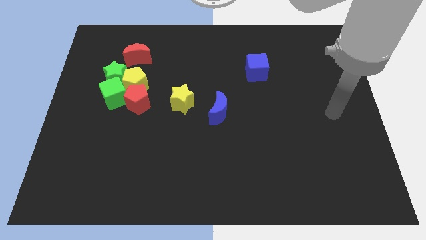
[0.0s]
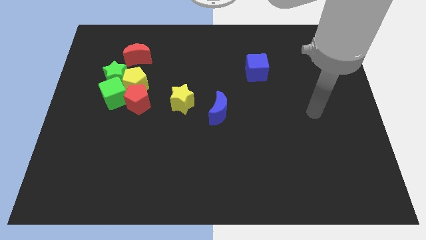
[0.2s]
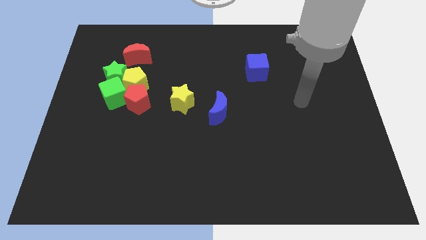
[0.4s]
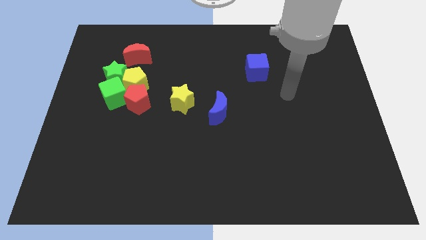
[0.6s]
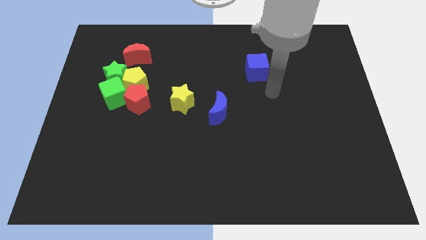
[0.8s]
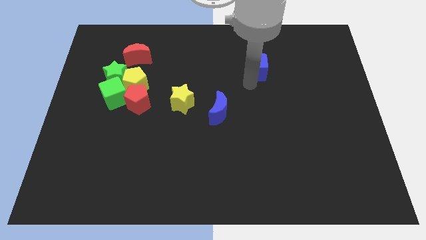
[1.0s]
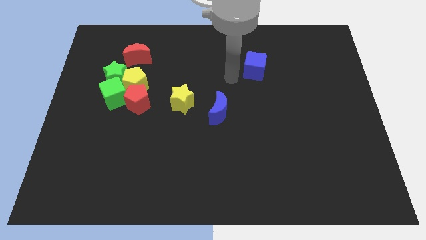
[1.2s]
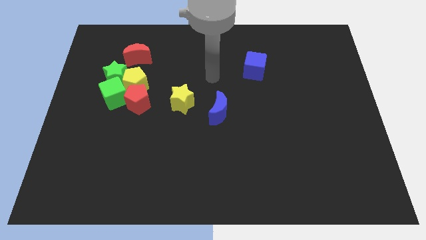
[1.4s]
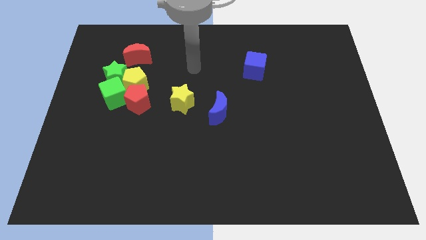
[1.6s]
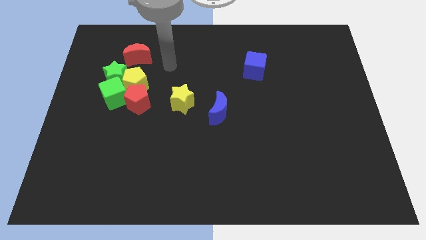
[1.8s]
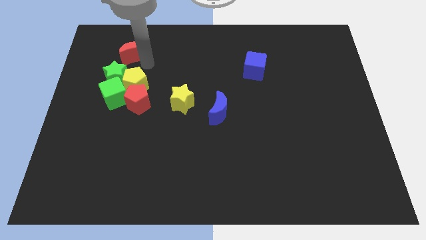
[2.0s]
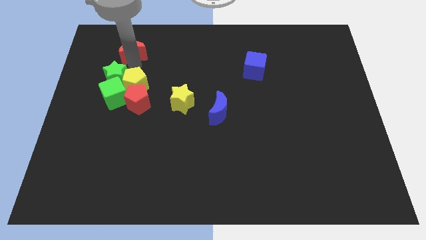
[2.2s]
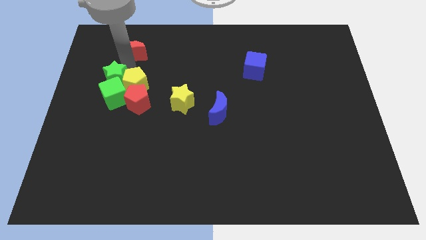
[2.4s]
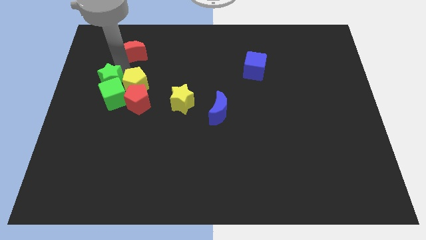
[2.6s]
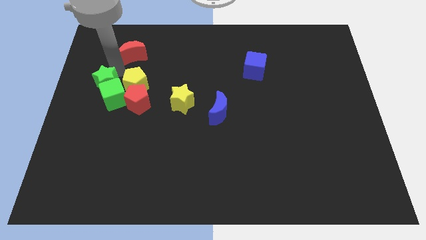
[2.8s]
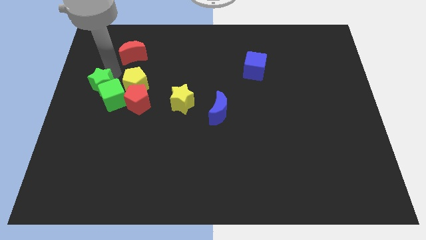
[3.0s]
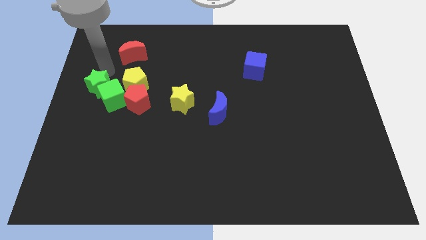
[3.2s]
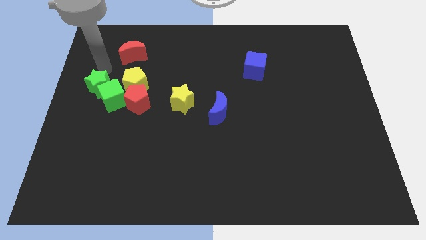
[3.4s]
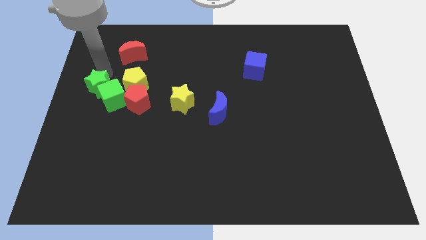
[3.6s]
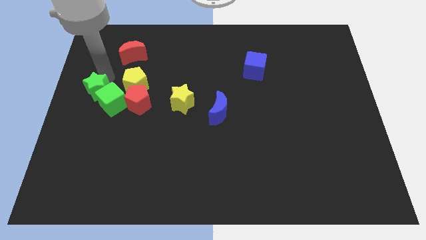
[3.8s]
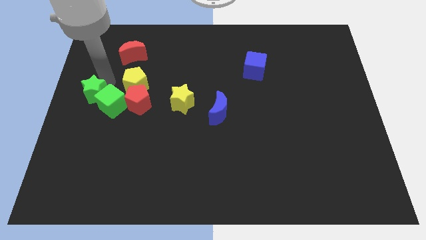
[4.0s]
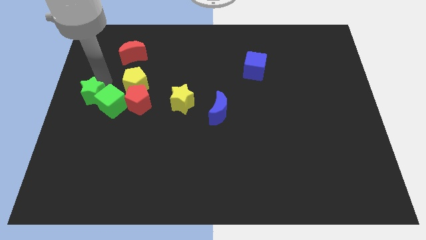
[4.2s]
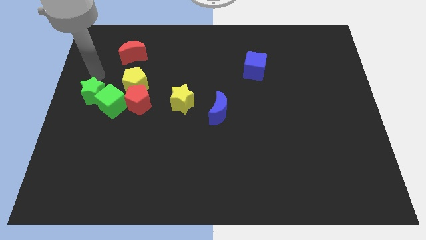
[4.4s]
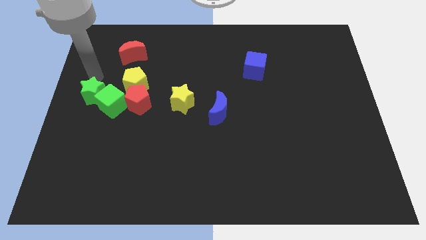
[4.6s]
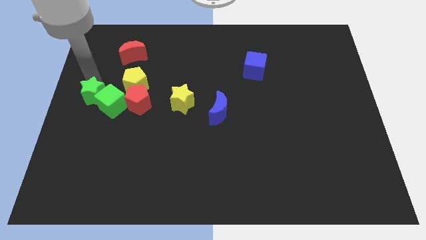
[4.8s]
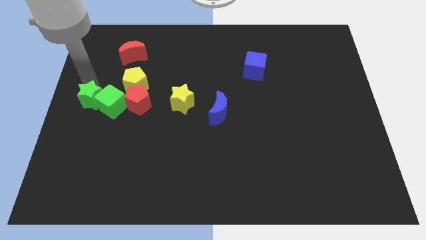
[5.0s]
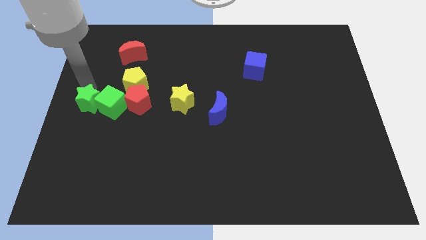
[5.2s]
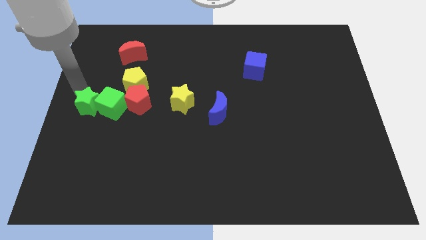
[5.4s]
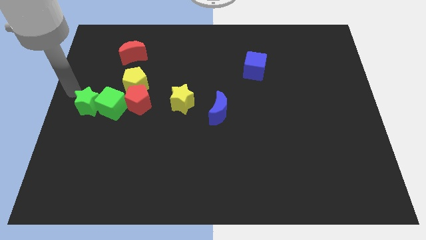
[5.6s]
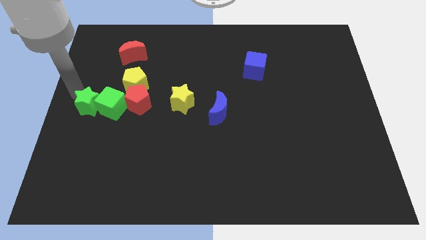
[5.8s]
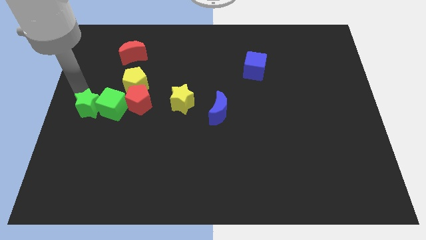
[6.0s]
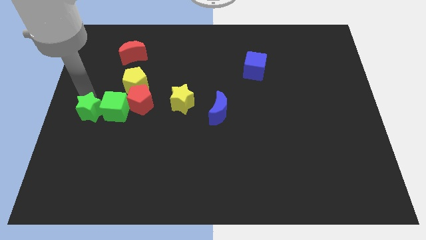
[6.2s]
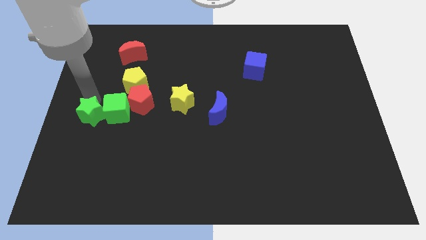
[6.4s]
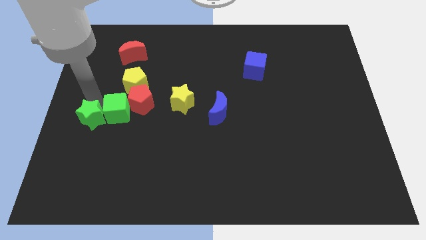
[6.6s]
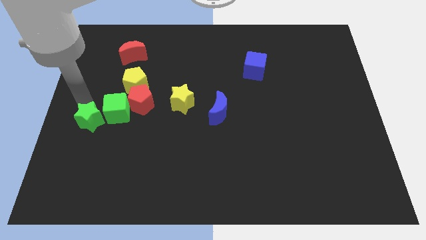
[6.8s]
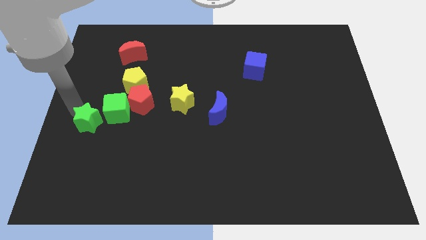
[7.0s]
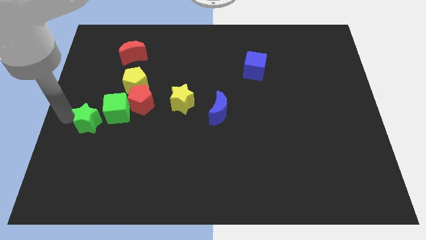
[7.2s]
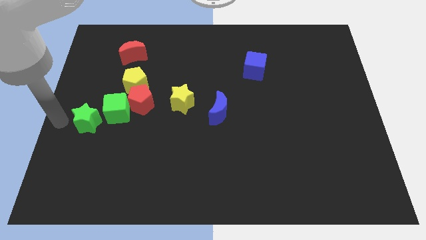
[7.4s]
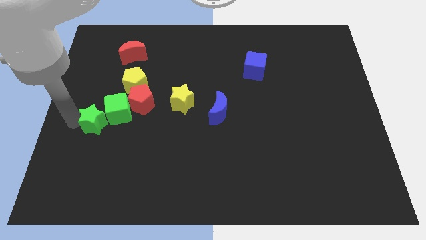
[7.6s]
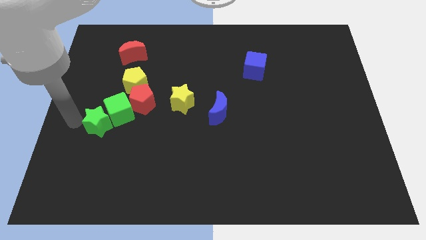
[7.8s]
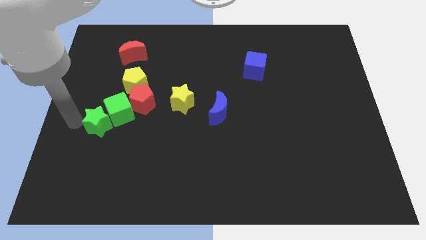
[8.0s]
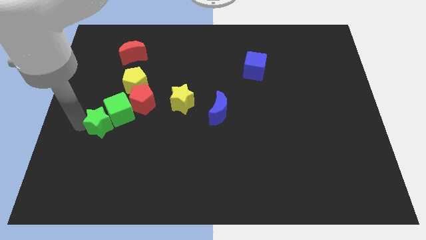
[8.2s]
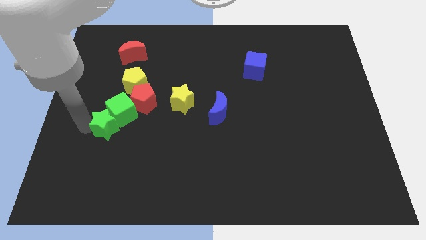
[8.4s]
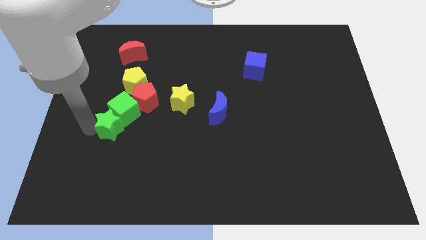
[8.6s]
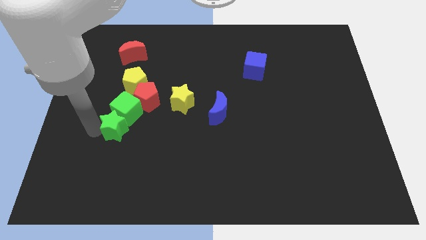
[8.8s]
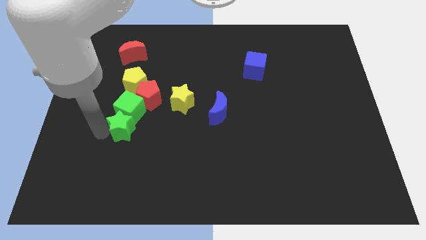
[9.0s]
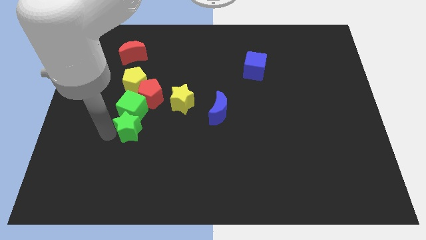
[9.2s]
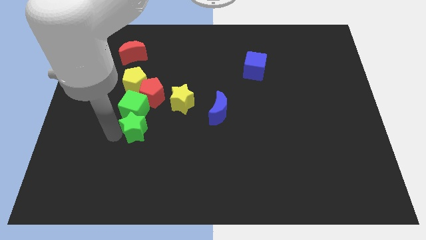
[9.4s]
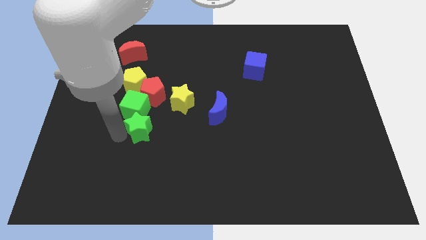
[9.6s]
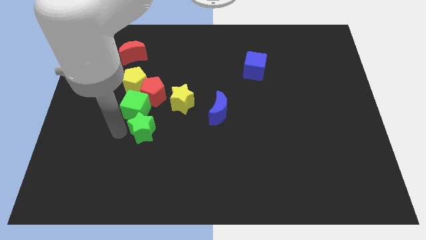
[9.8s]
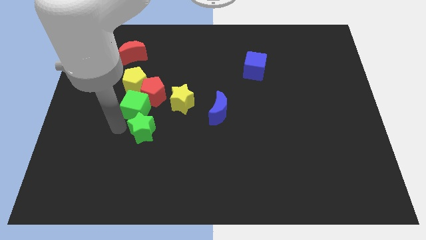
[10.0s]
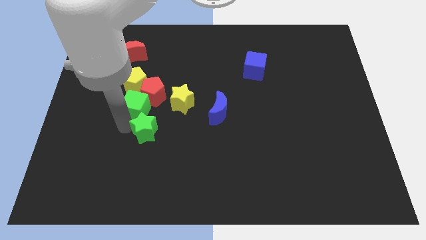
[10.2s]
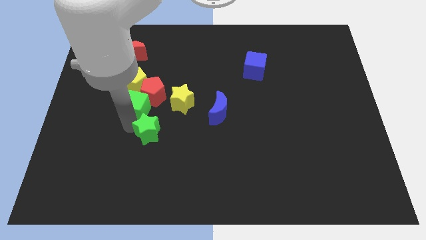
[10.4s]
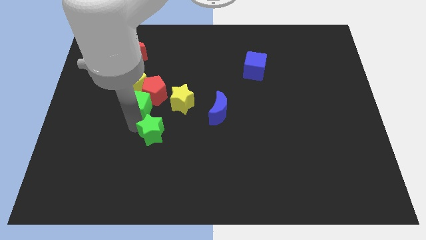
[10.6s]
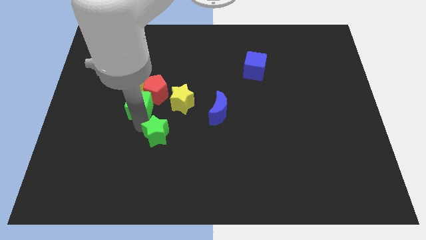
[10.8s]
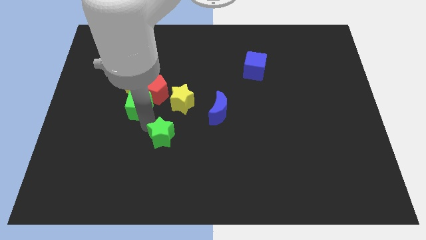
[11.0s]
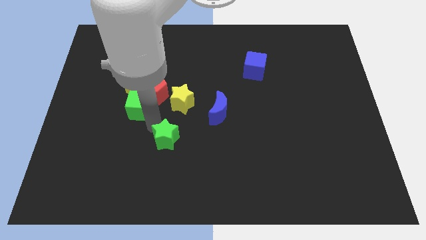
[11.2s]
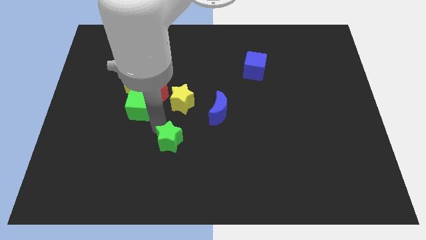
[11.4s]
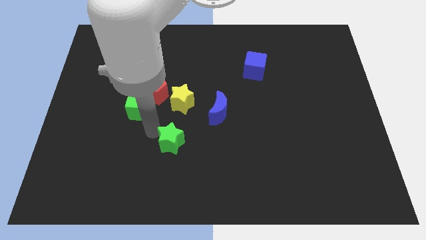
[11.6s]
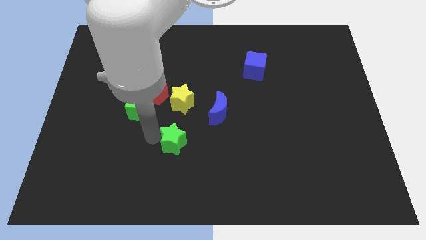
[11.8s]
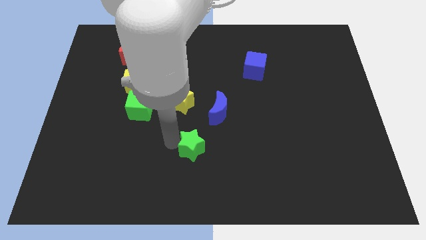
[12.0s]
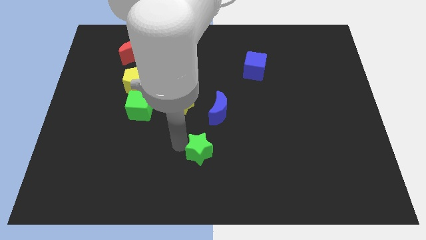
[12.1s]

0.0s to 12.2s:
push the green star below the blue moon

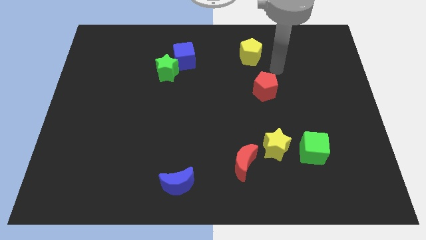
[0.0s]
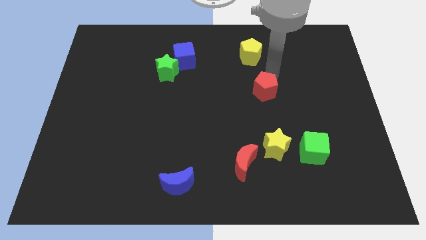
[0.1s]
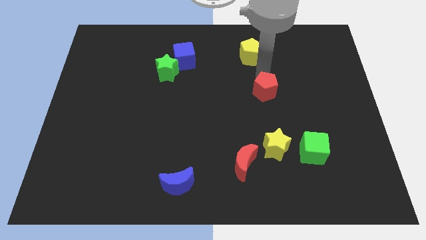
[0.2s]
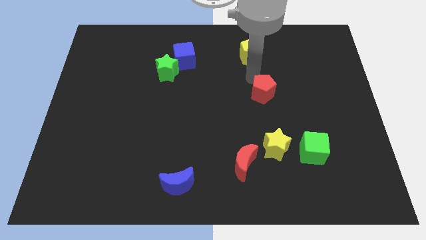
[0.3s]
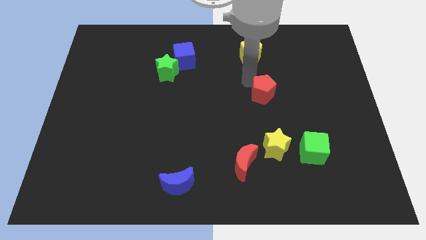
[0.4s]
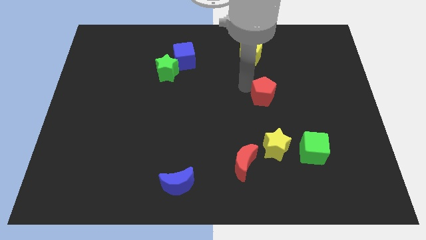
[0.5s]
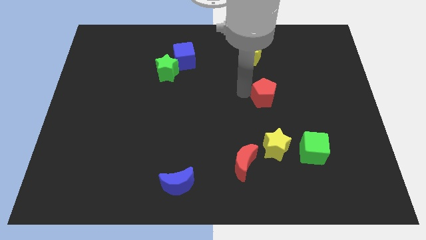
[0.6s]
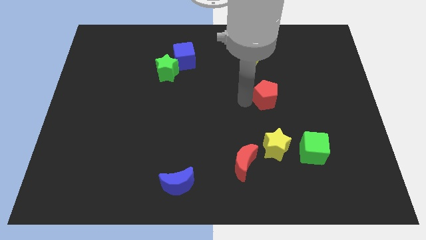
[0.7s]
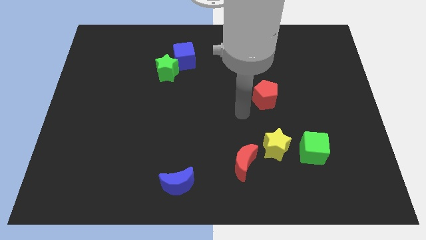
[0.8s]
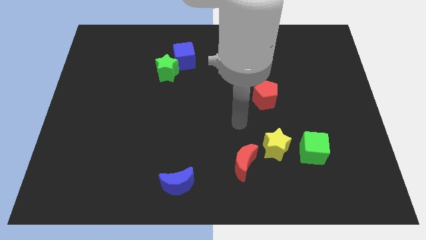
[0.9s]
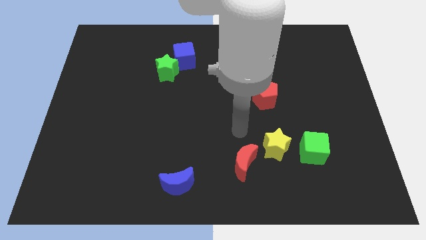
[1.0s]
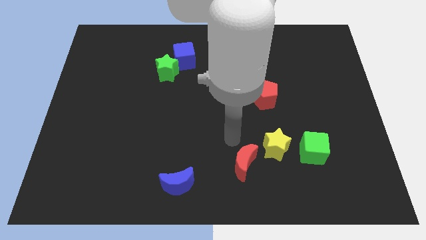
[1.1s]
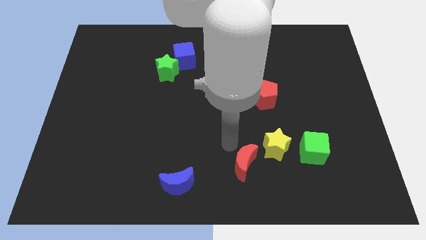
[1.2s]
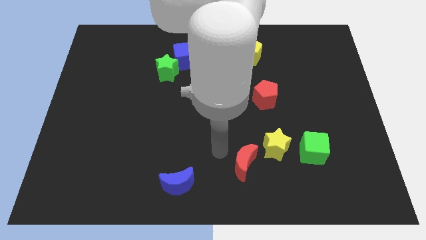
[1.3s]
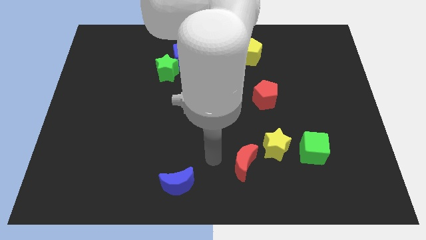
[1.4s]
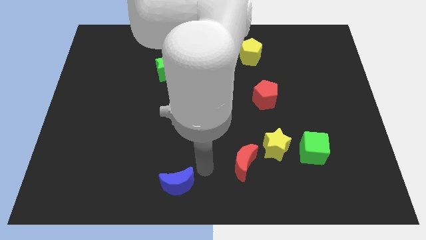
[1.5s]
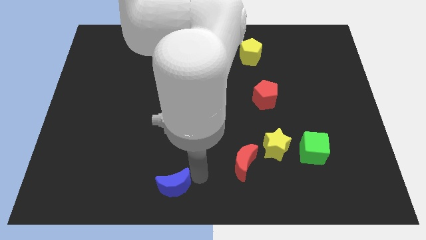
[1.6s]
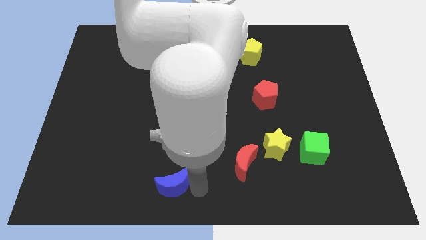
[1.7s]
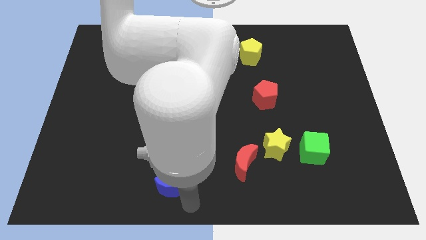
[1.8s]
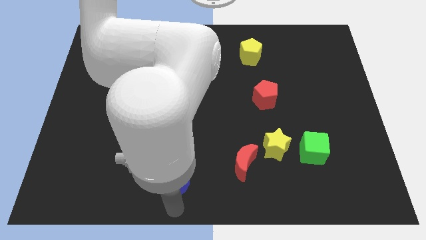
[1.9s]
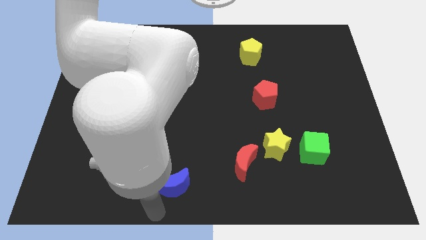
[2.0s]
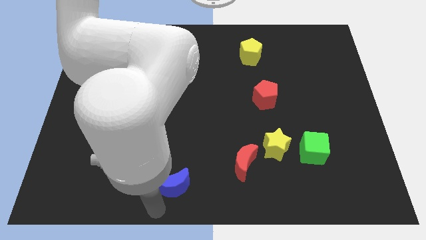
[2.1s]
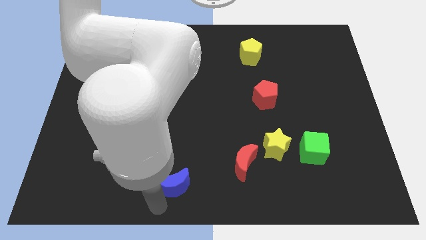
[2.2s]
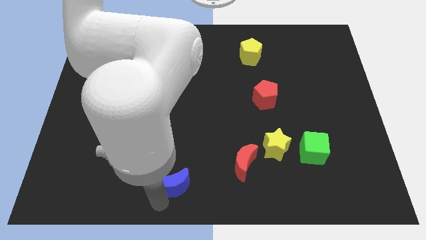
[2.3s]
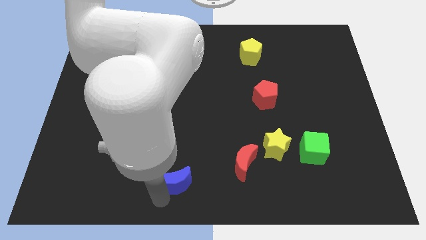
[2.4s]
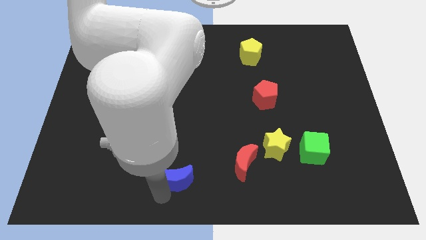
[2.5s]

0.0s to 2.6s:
move the blue moon to the left side of the red moon
